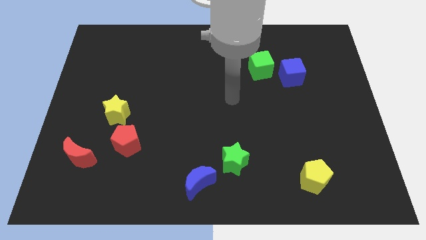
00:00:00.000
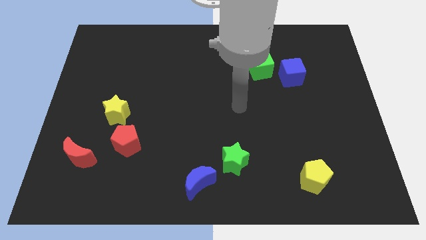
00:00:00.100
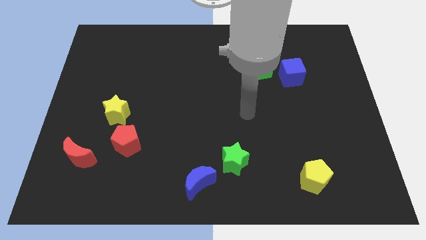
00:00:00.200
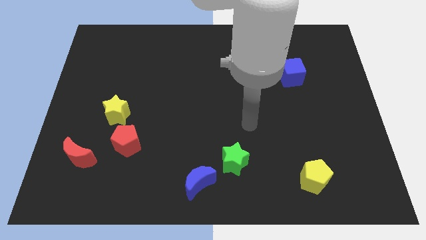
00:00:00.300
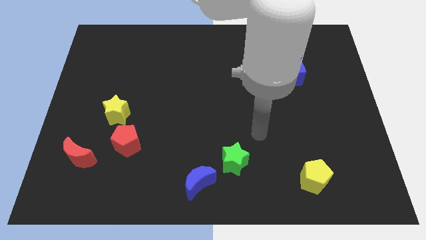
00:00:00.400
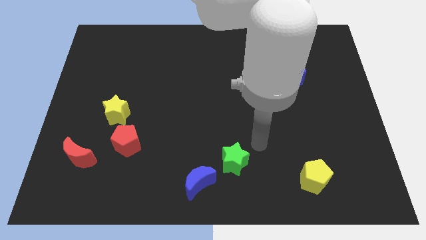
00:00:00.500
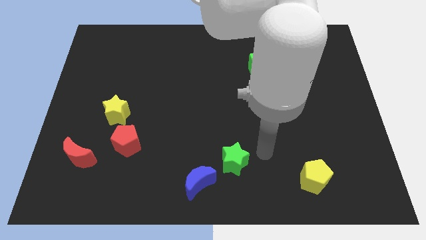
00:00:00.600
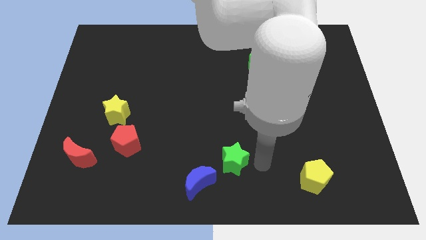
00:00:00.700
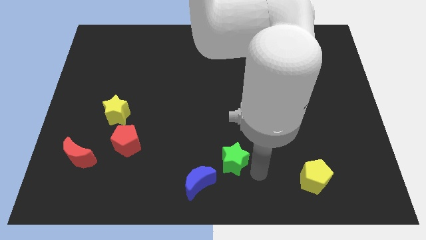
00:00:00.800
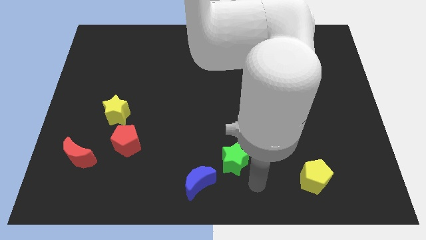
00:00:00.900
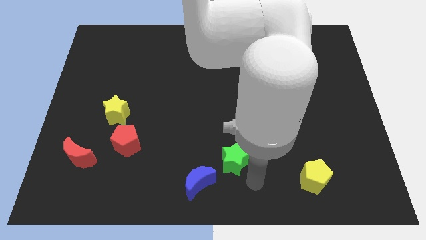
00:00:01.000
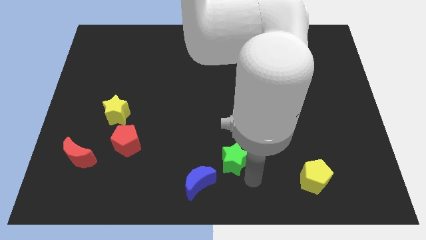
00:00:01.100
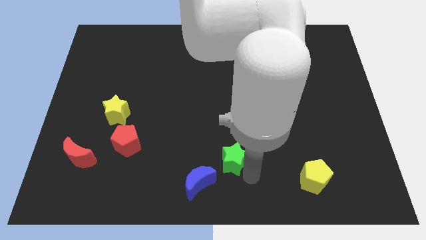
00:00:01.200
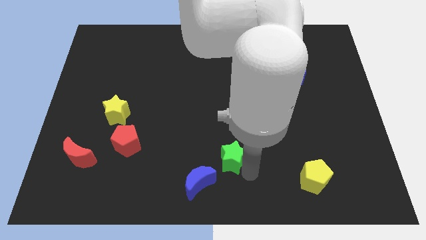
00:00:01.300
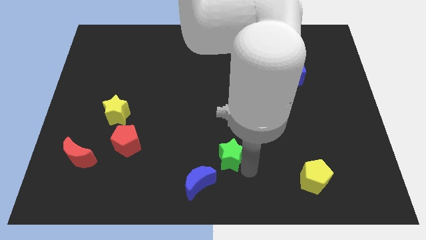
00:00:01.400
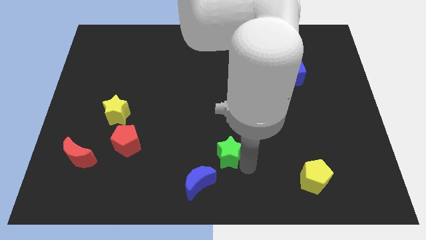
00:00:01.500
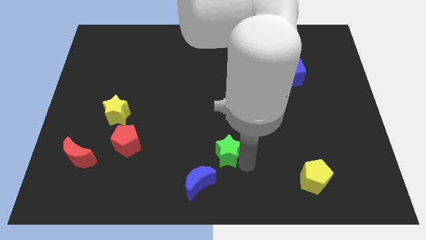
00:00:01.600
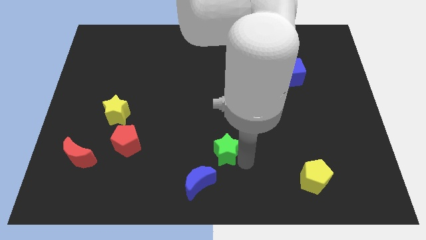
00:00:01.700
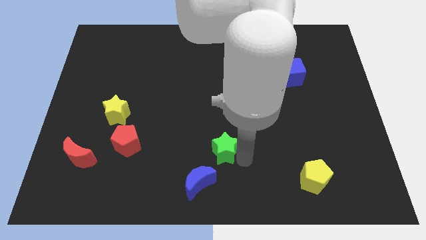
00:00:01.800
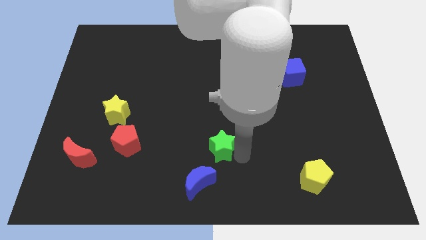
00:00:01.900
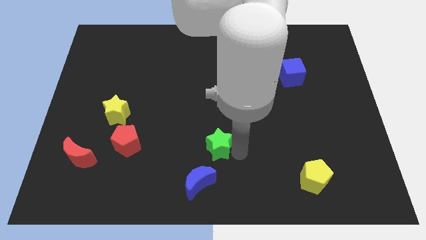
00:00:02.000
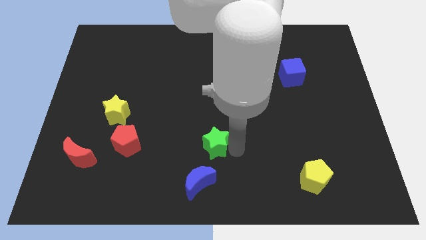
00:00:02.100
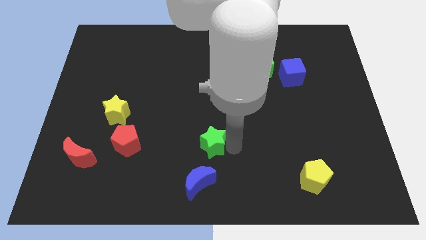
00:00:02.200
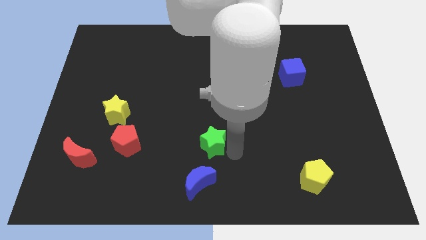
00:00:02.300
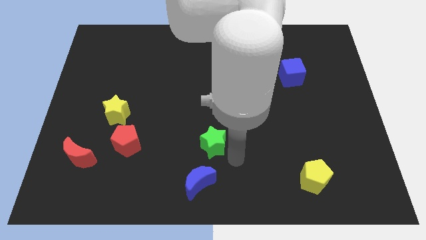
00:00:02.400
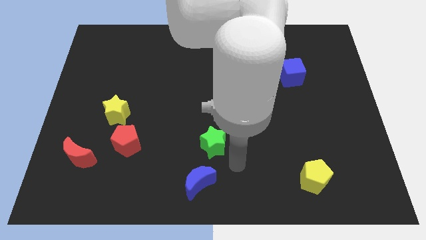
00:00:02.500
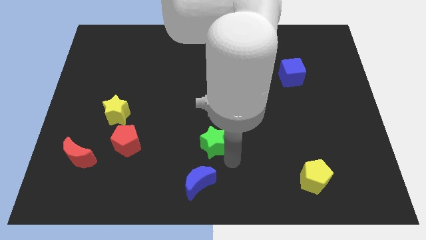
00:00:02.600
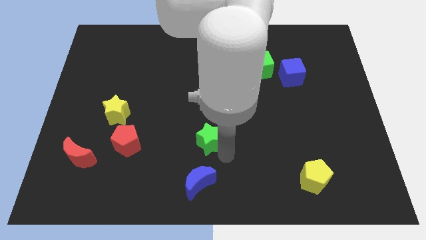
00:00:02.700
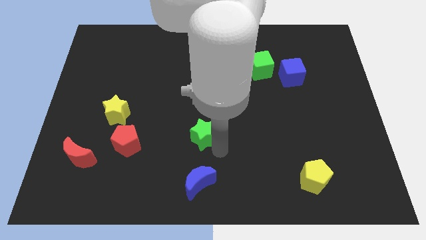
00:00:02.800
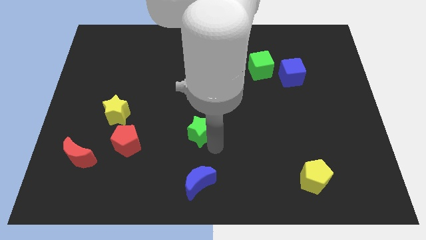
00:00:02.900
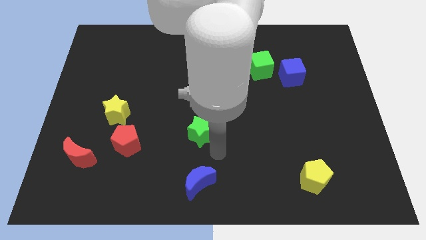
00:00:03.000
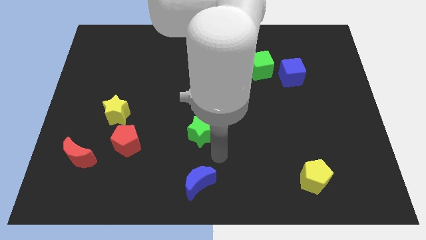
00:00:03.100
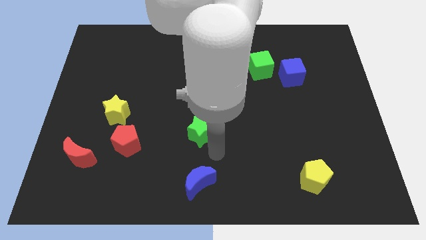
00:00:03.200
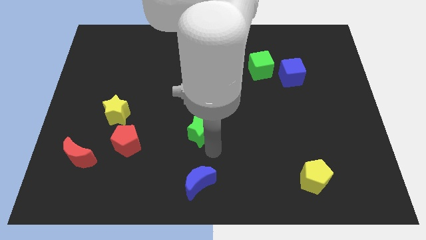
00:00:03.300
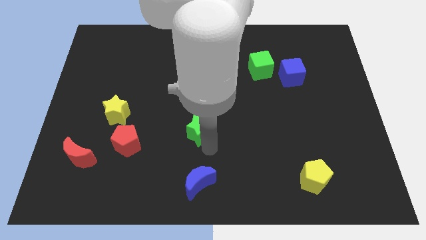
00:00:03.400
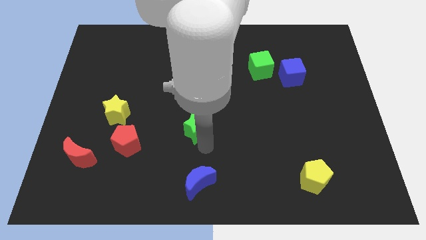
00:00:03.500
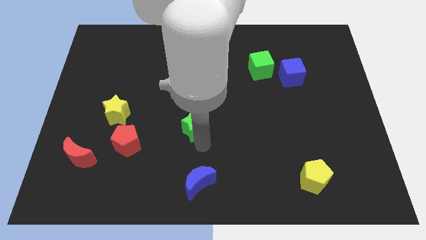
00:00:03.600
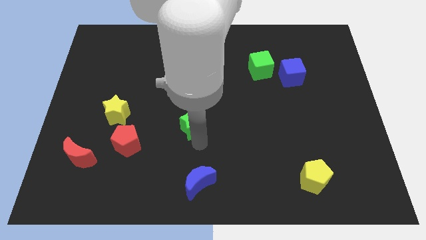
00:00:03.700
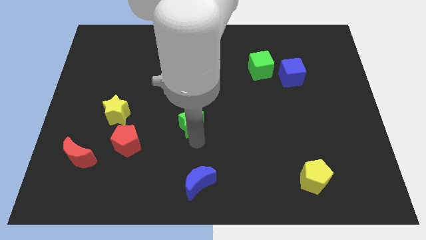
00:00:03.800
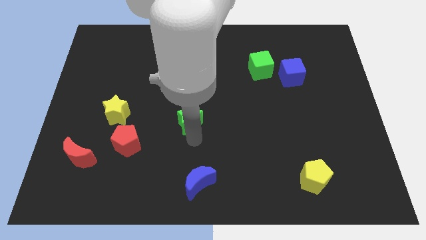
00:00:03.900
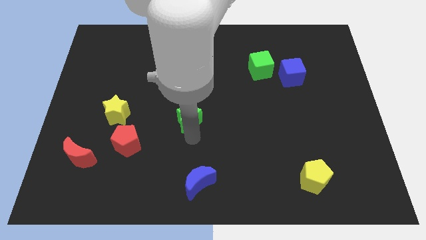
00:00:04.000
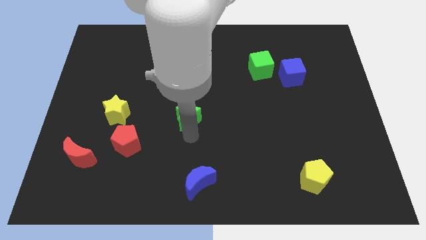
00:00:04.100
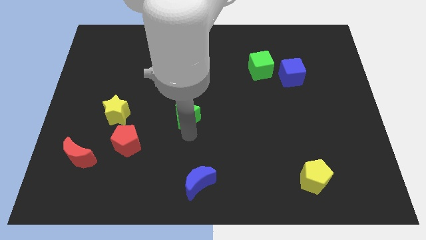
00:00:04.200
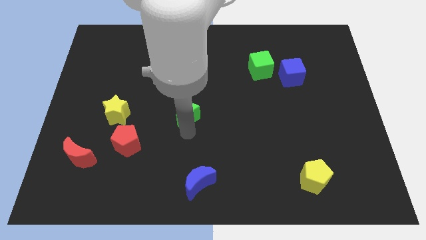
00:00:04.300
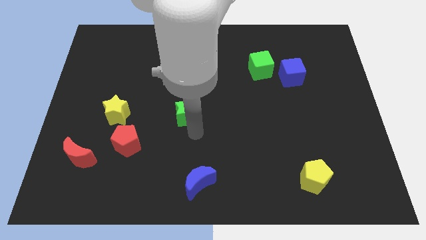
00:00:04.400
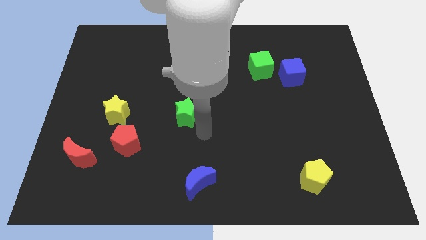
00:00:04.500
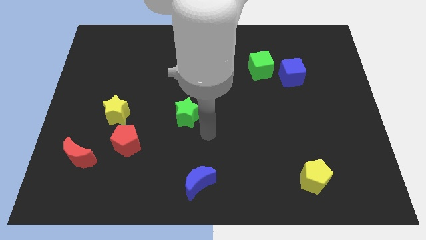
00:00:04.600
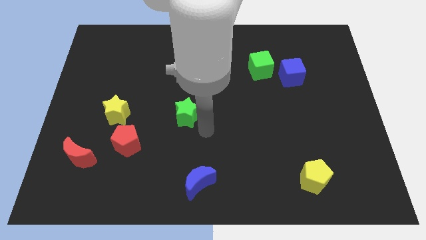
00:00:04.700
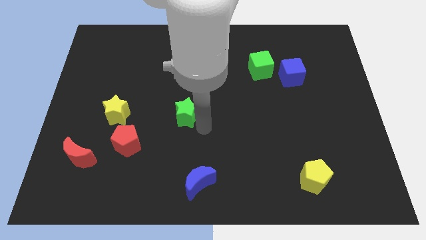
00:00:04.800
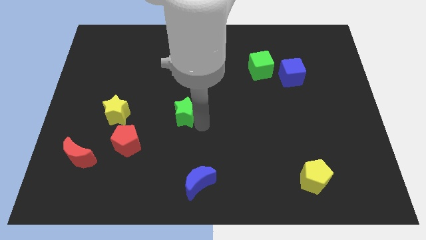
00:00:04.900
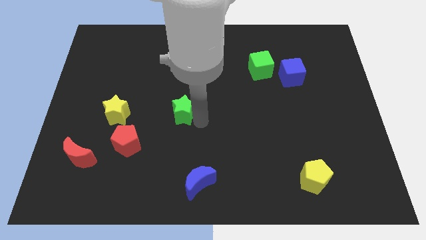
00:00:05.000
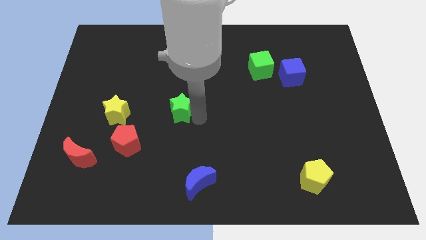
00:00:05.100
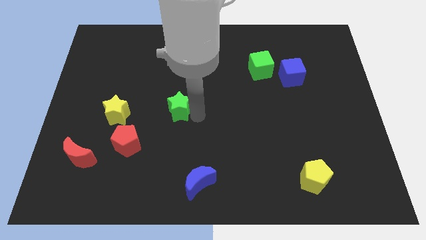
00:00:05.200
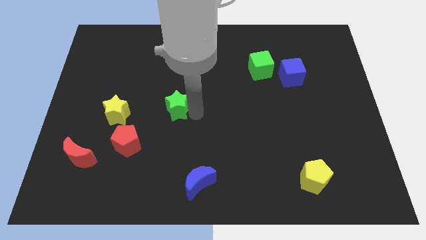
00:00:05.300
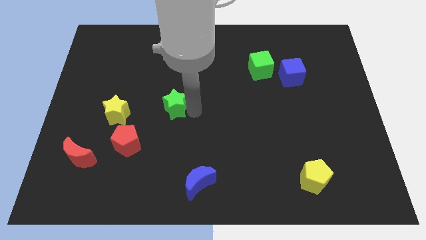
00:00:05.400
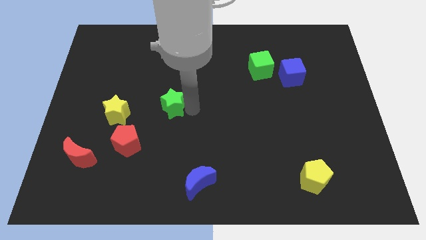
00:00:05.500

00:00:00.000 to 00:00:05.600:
move the green star up and then left

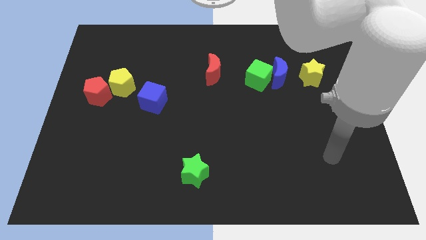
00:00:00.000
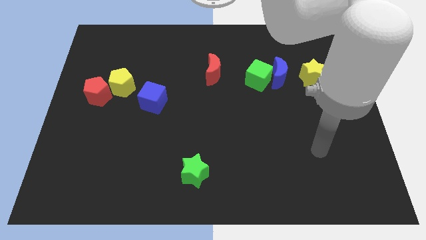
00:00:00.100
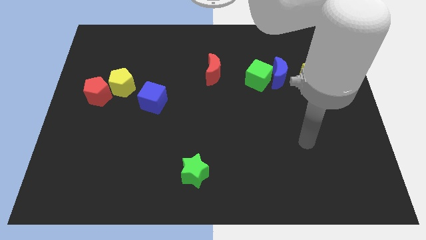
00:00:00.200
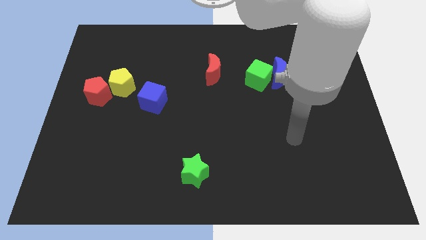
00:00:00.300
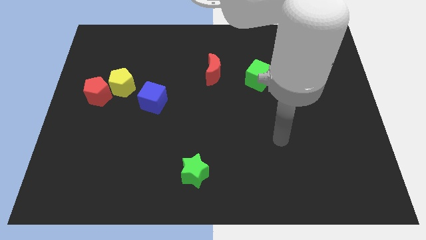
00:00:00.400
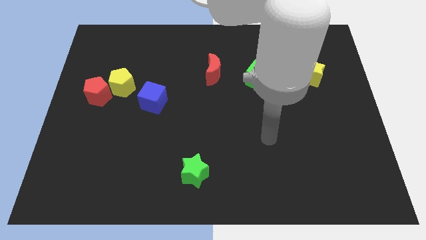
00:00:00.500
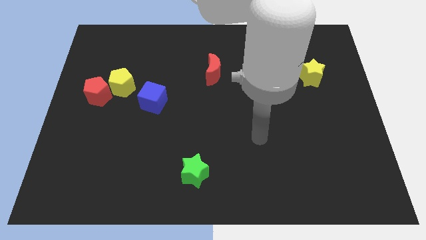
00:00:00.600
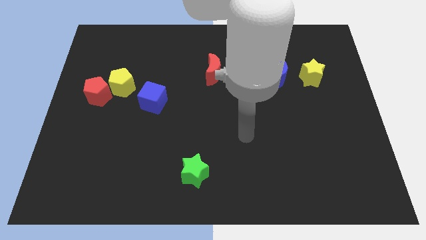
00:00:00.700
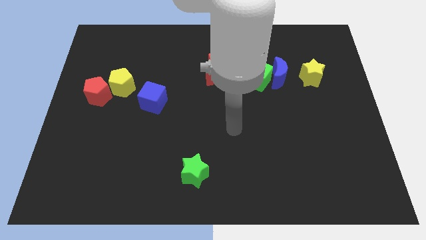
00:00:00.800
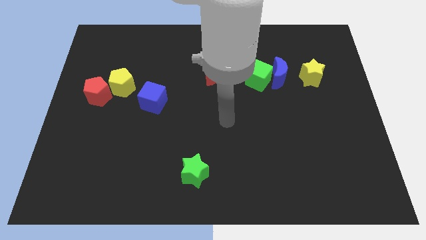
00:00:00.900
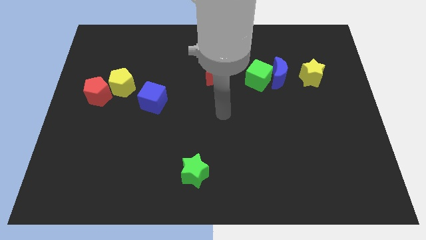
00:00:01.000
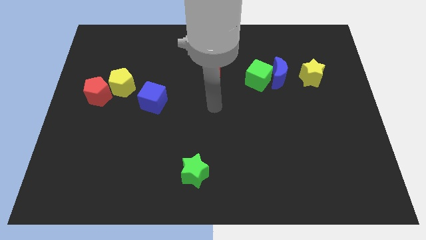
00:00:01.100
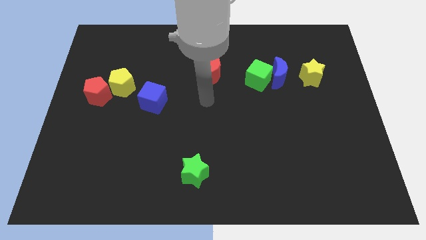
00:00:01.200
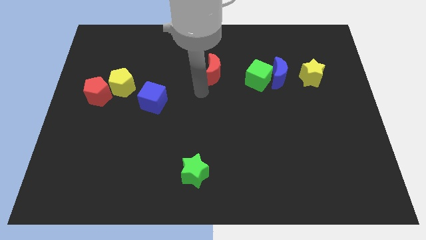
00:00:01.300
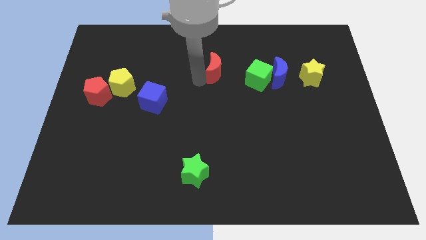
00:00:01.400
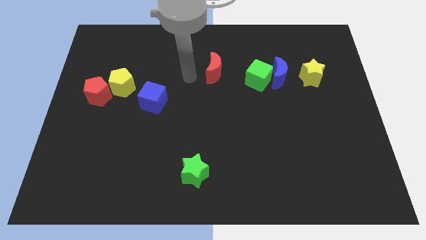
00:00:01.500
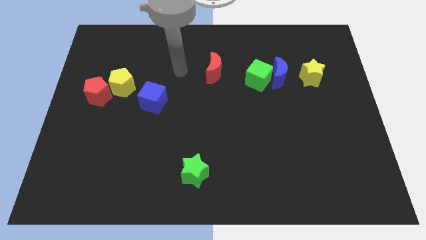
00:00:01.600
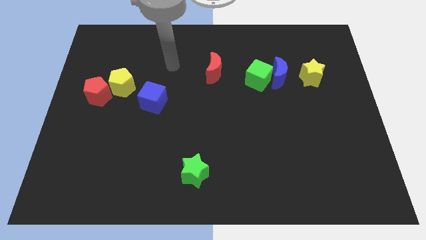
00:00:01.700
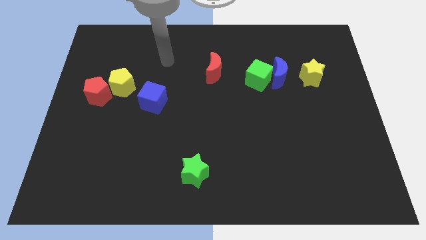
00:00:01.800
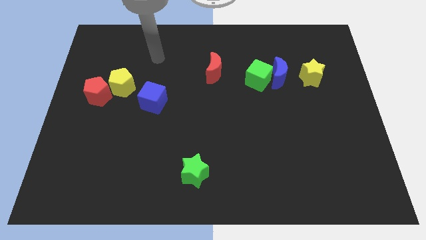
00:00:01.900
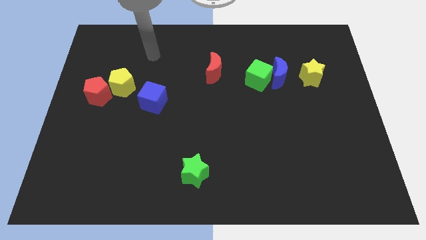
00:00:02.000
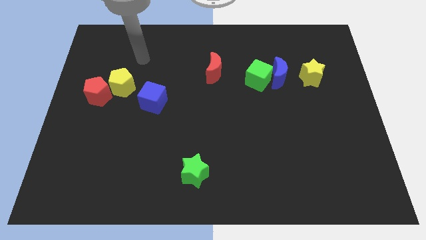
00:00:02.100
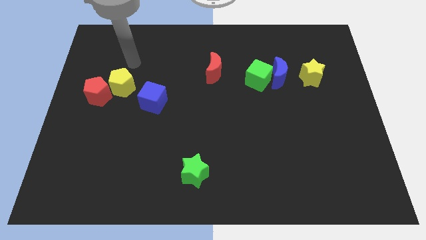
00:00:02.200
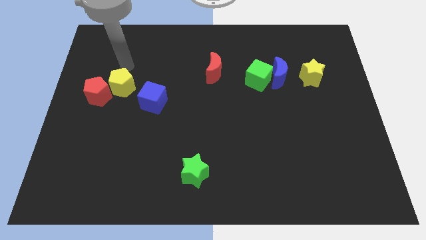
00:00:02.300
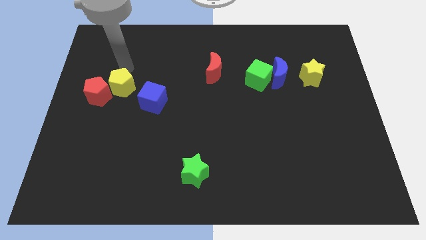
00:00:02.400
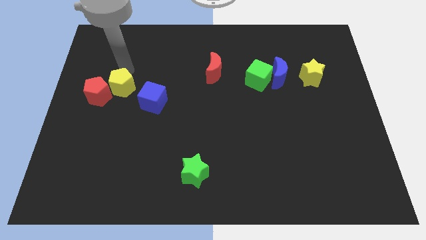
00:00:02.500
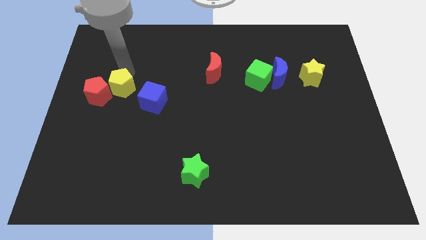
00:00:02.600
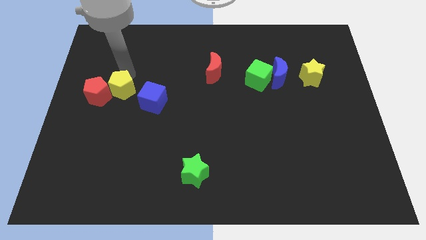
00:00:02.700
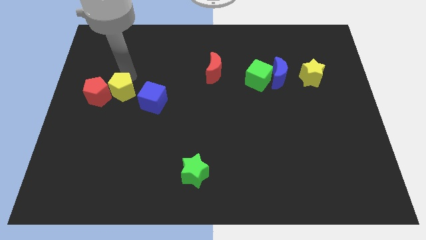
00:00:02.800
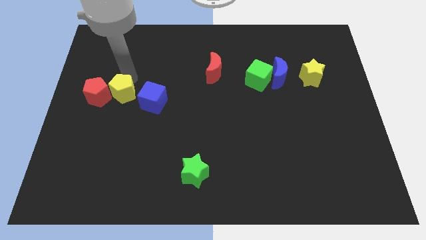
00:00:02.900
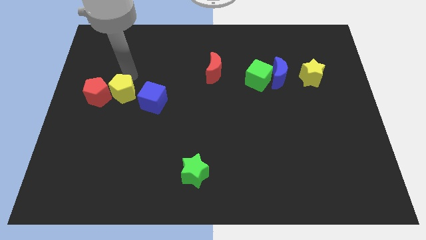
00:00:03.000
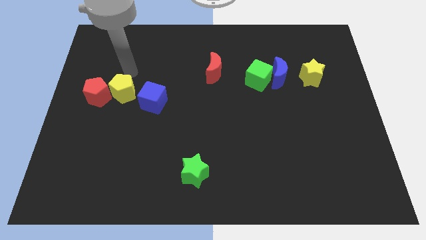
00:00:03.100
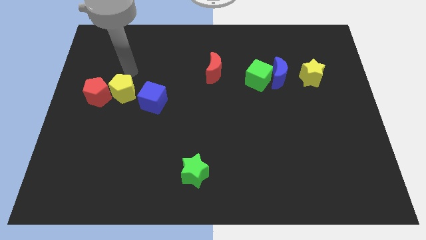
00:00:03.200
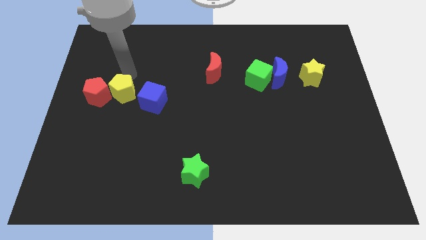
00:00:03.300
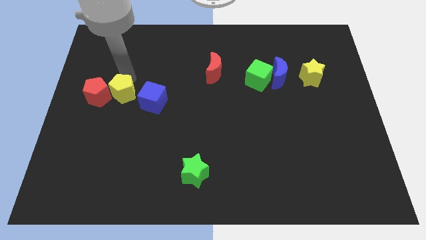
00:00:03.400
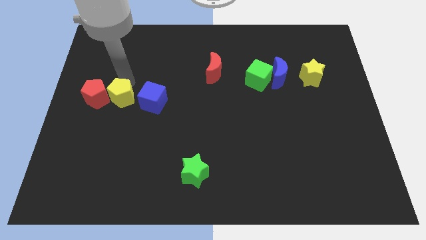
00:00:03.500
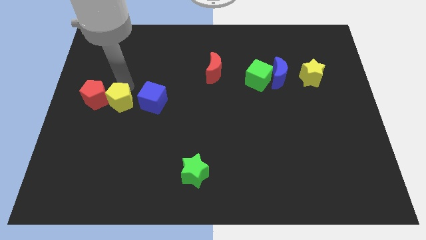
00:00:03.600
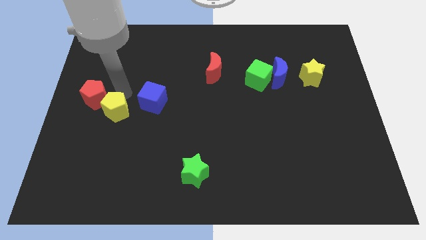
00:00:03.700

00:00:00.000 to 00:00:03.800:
move the yellow pentagon down somewhat
